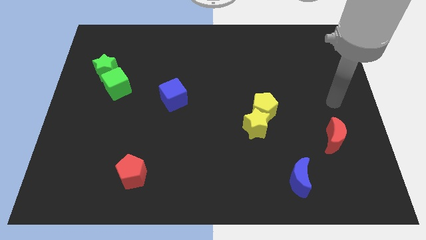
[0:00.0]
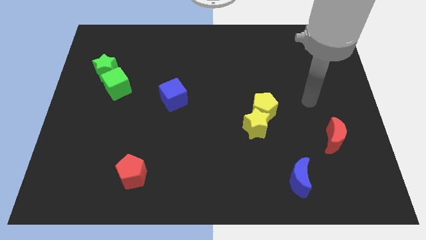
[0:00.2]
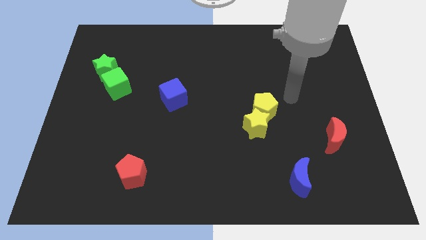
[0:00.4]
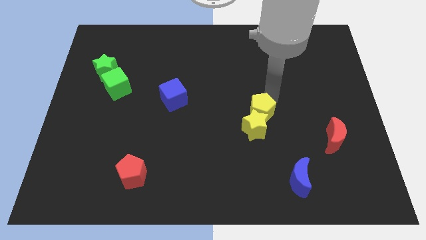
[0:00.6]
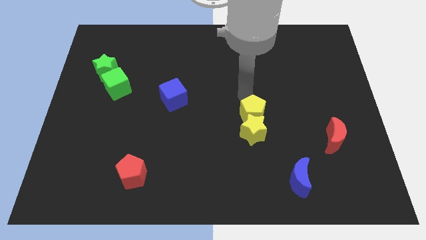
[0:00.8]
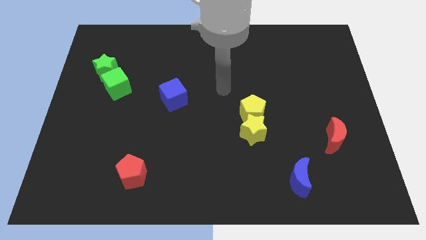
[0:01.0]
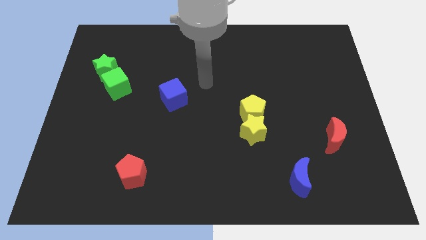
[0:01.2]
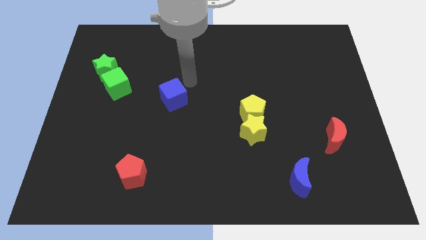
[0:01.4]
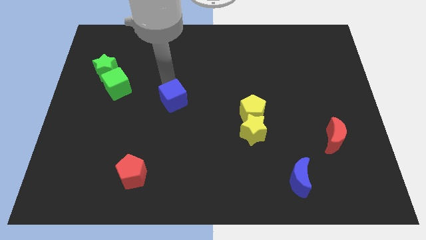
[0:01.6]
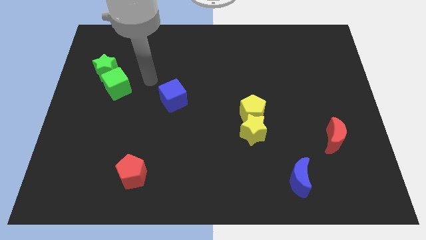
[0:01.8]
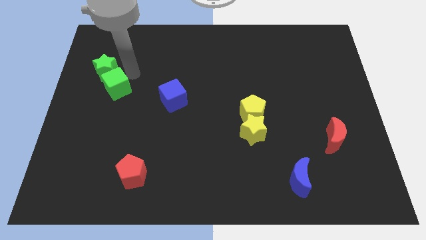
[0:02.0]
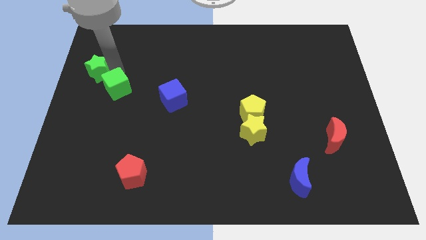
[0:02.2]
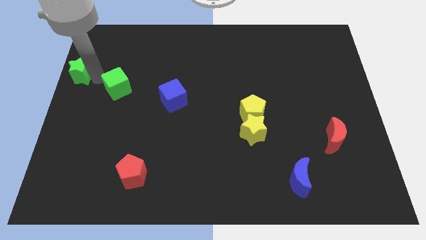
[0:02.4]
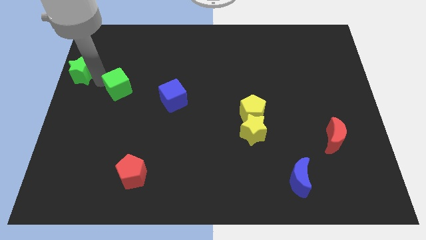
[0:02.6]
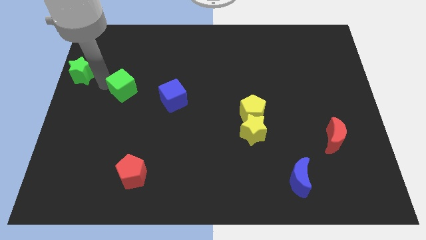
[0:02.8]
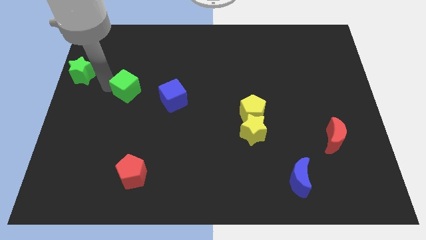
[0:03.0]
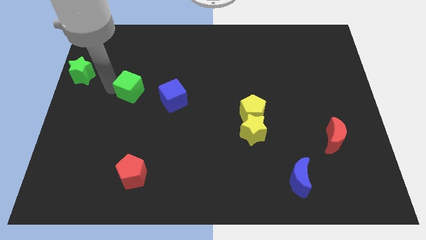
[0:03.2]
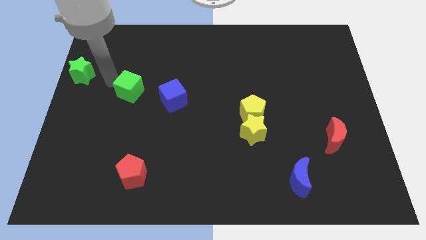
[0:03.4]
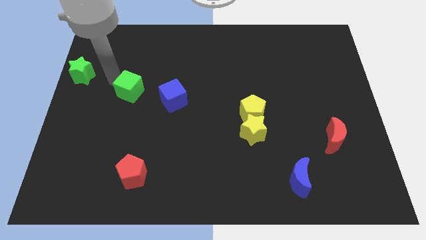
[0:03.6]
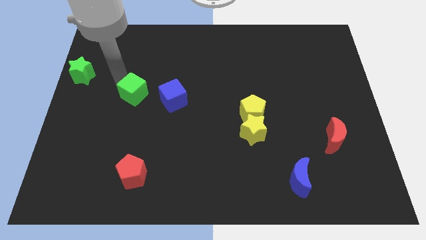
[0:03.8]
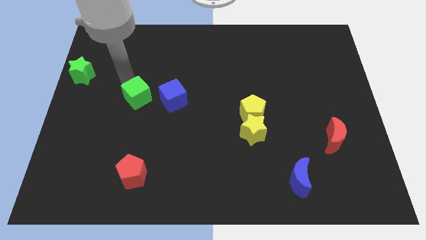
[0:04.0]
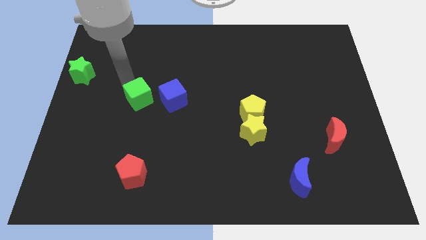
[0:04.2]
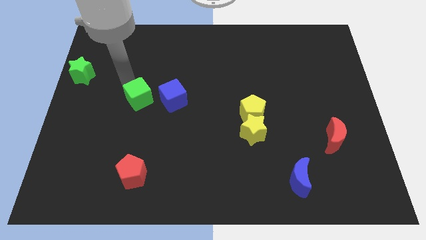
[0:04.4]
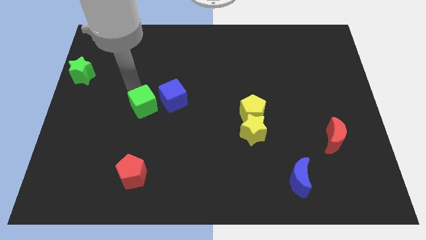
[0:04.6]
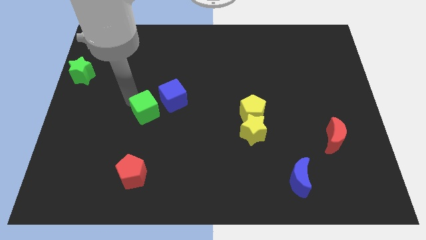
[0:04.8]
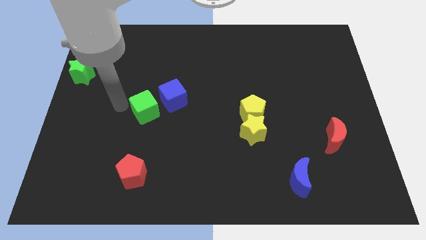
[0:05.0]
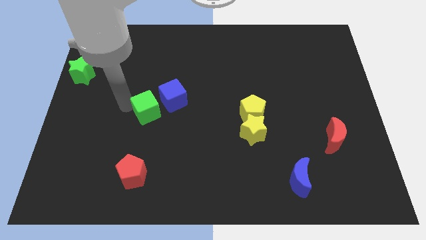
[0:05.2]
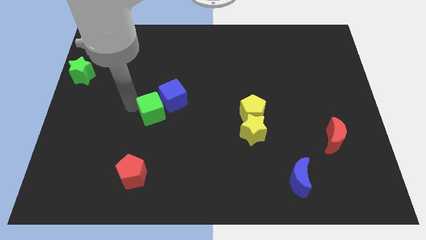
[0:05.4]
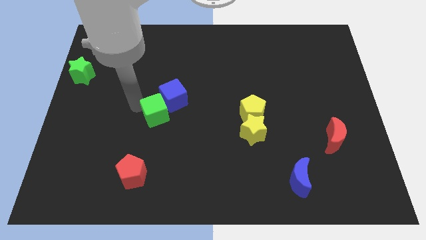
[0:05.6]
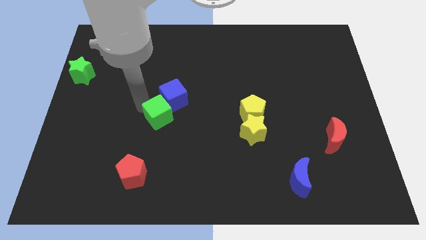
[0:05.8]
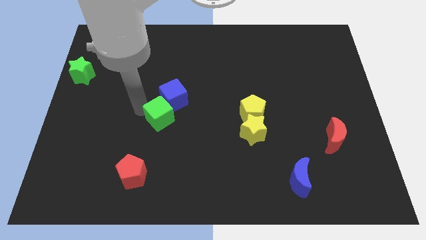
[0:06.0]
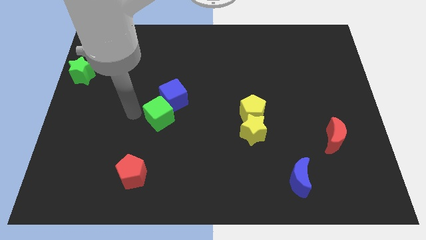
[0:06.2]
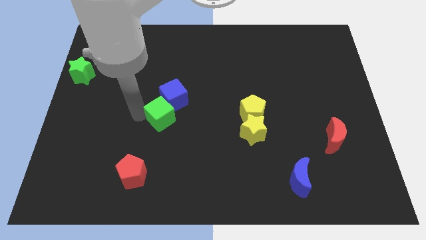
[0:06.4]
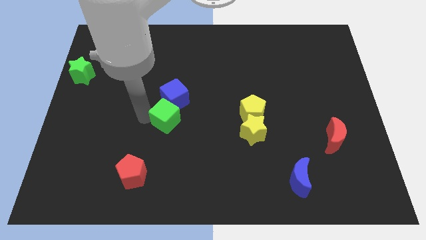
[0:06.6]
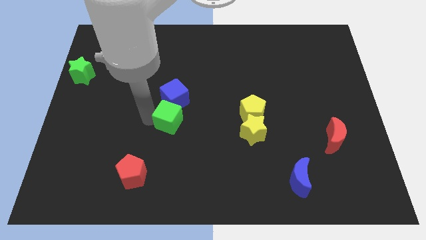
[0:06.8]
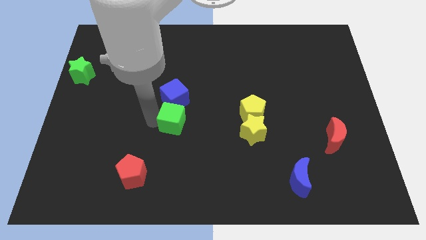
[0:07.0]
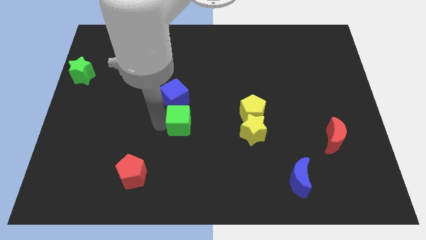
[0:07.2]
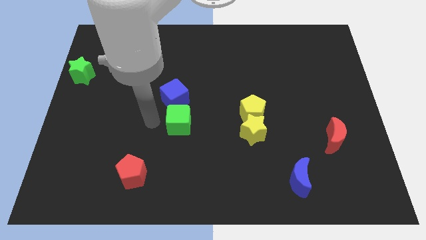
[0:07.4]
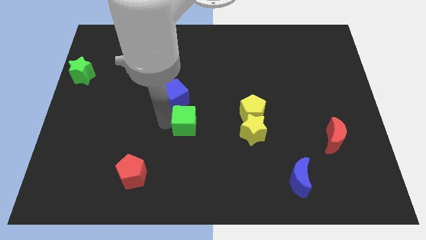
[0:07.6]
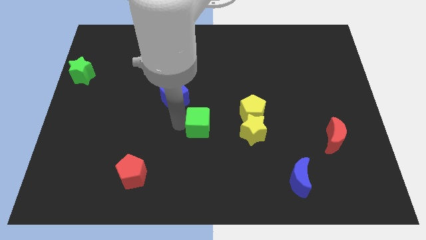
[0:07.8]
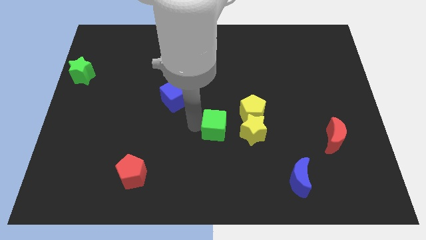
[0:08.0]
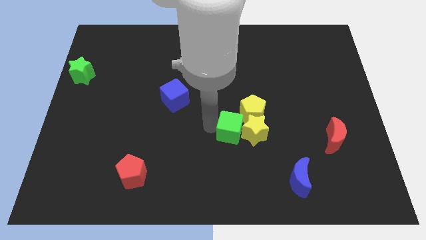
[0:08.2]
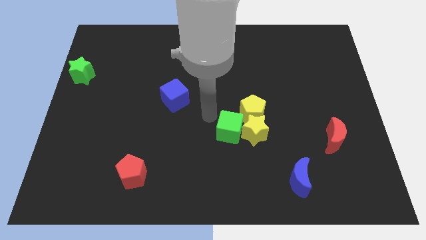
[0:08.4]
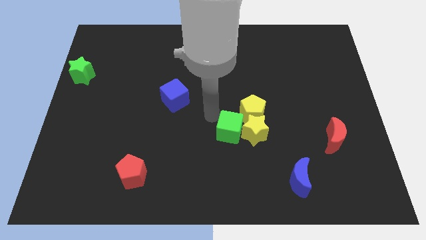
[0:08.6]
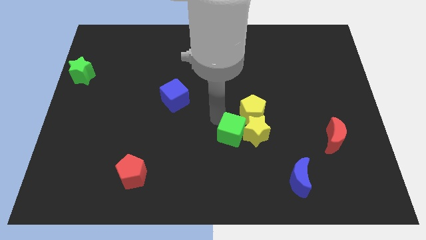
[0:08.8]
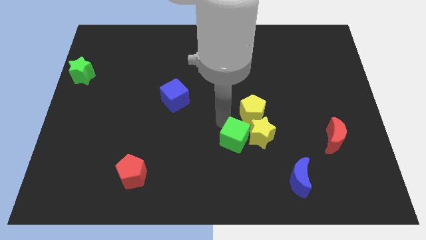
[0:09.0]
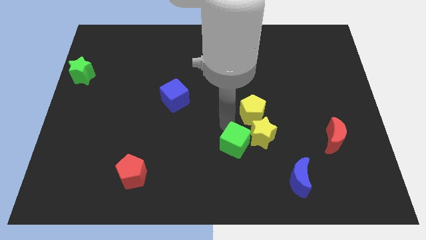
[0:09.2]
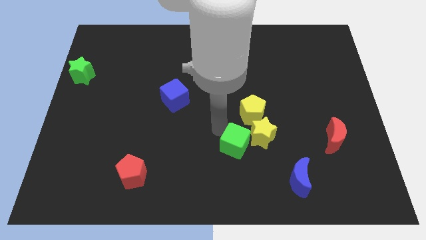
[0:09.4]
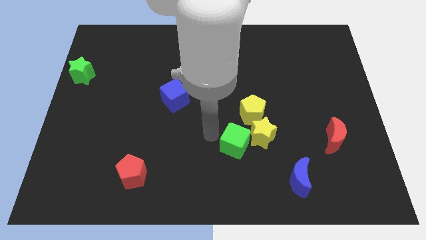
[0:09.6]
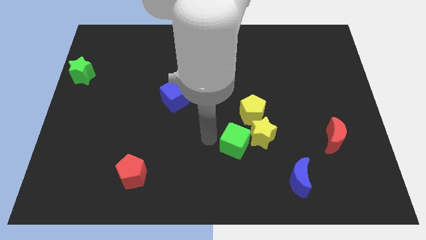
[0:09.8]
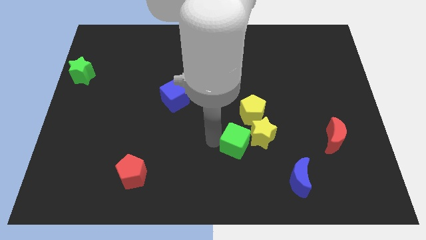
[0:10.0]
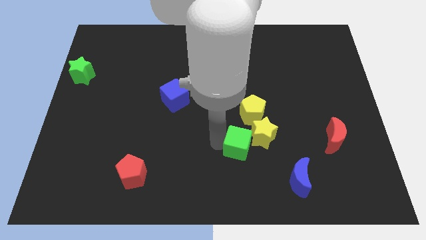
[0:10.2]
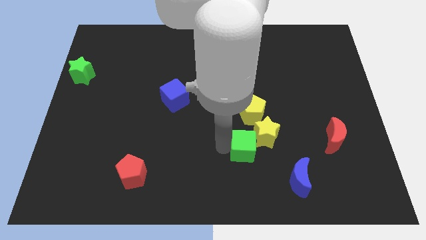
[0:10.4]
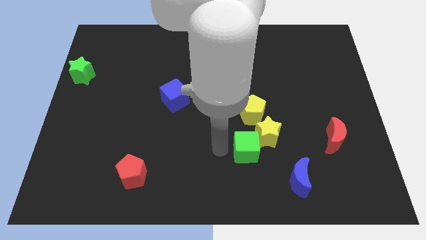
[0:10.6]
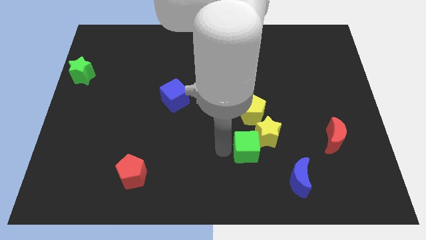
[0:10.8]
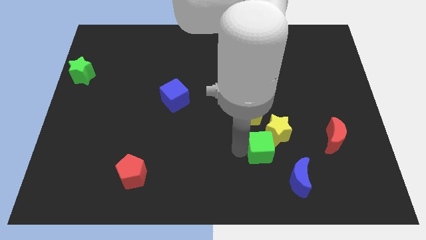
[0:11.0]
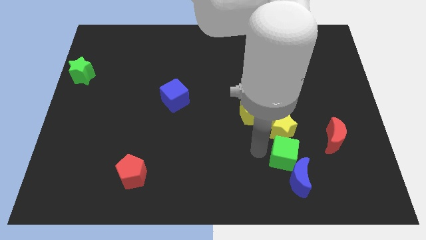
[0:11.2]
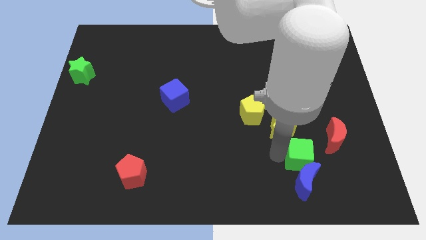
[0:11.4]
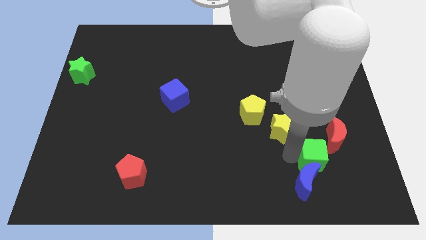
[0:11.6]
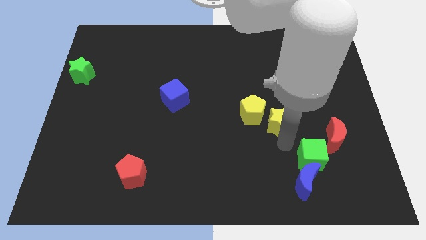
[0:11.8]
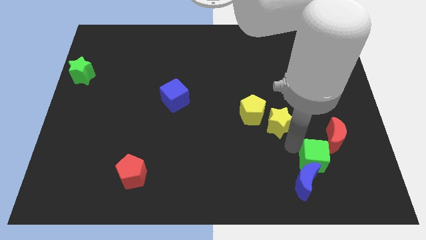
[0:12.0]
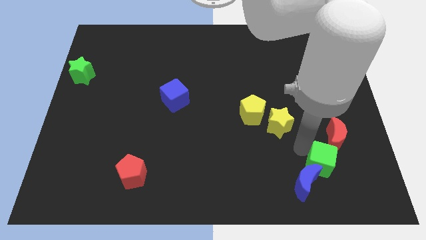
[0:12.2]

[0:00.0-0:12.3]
put the green cube to the right of the blue moon

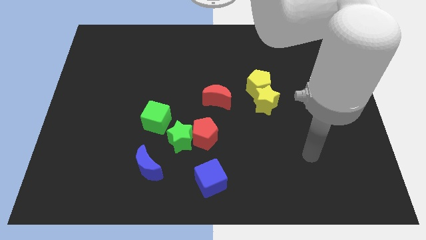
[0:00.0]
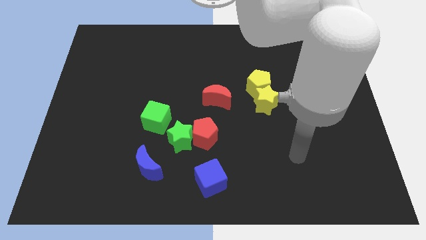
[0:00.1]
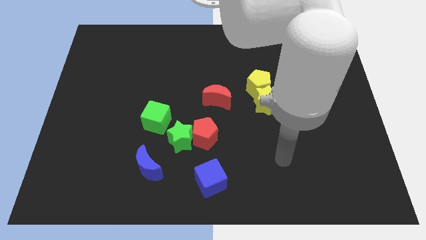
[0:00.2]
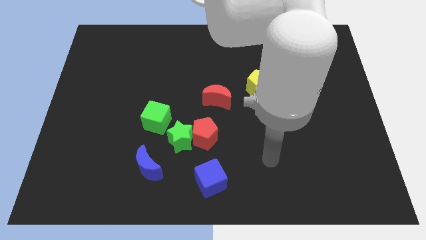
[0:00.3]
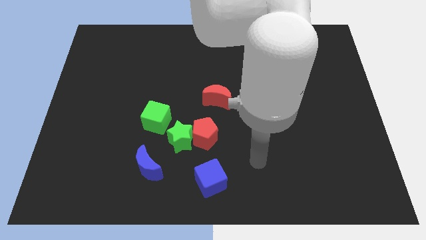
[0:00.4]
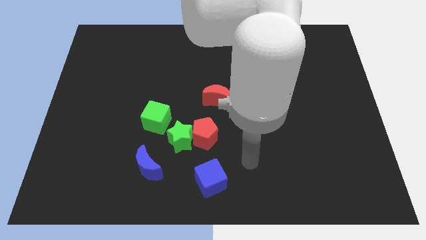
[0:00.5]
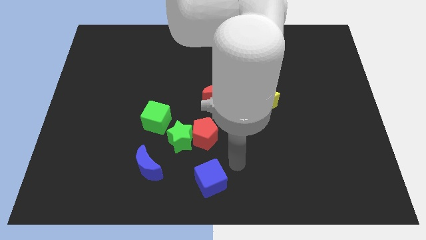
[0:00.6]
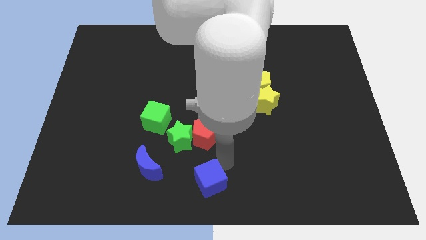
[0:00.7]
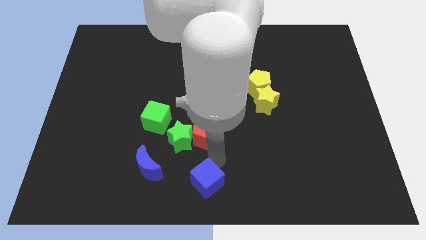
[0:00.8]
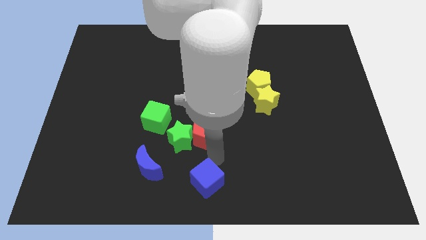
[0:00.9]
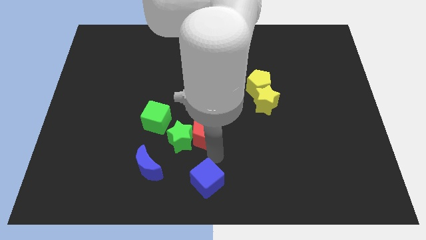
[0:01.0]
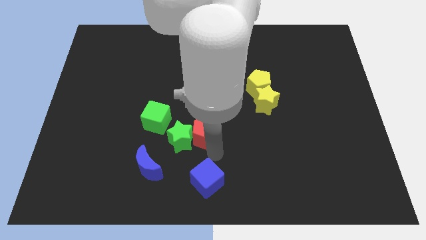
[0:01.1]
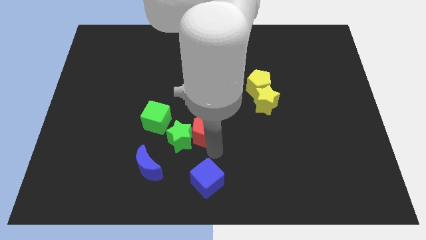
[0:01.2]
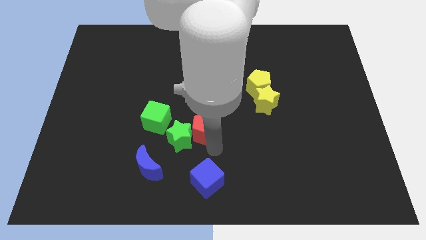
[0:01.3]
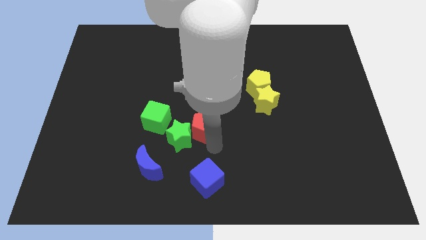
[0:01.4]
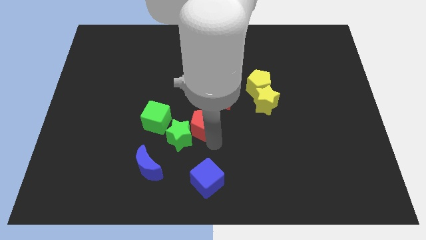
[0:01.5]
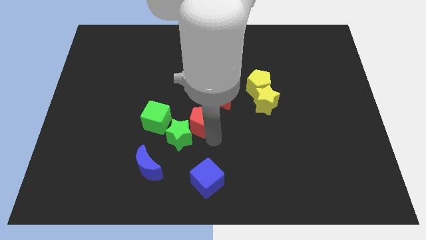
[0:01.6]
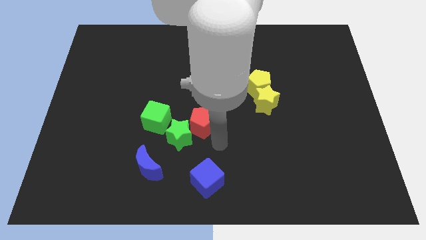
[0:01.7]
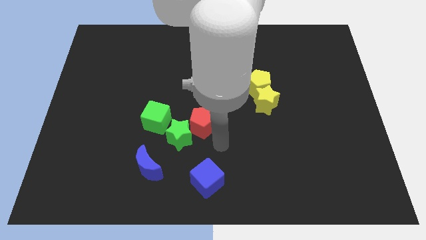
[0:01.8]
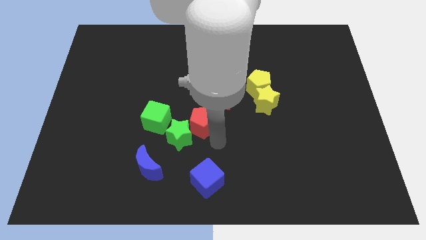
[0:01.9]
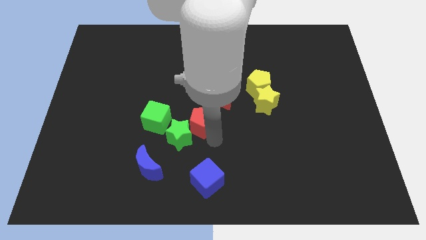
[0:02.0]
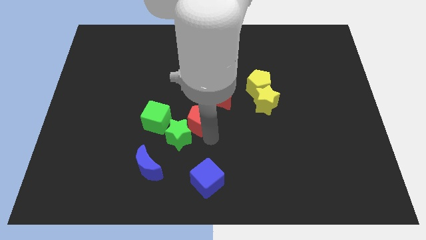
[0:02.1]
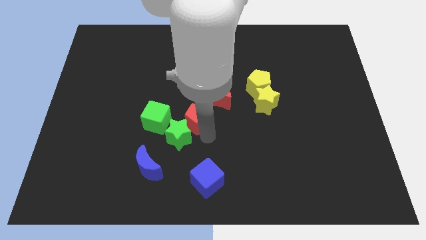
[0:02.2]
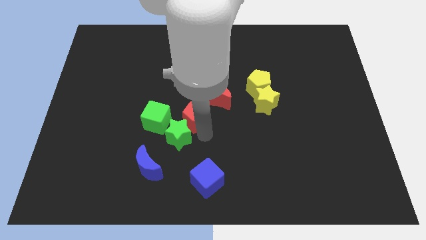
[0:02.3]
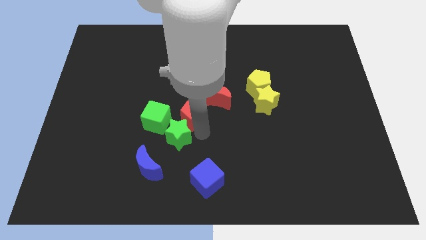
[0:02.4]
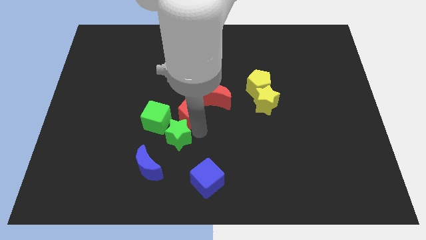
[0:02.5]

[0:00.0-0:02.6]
put the red pentagon diagonally up and to the right of the green cube
